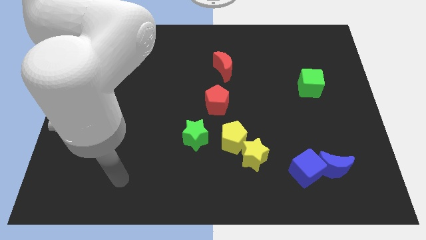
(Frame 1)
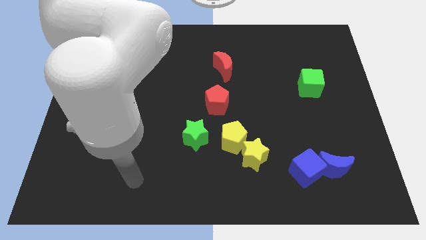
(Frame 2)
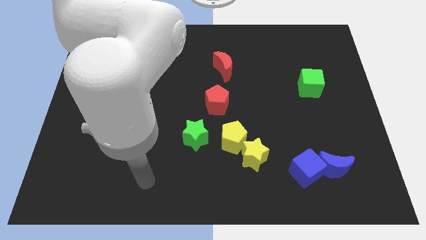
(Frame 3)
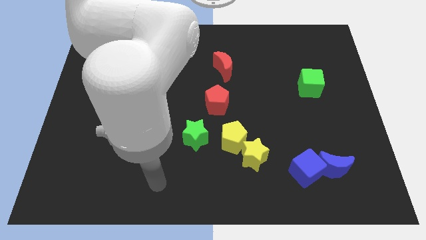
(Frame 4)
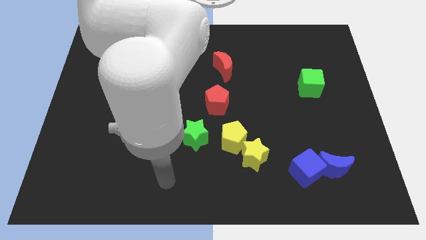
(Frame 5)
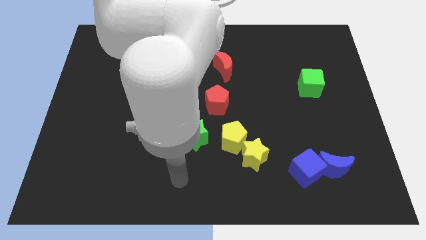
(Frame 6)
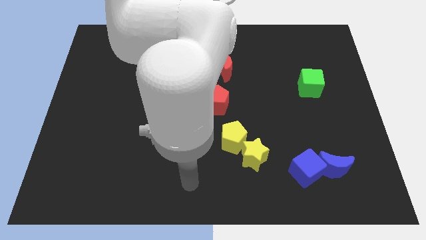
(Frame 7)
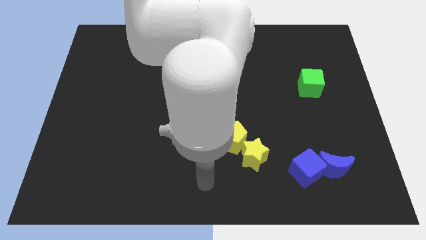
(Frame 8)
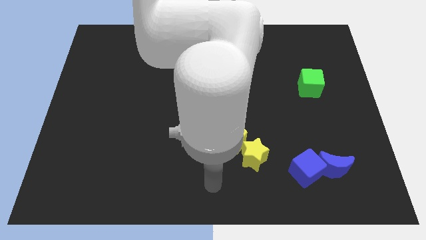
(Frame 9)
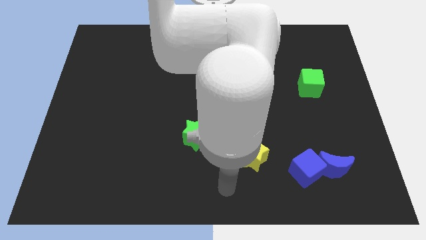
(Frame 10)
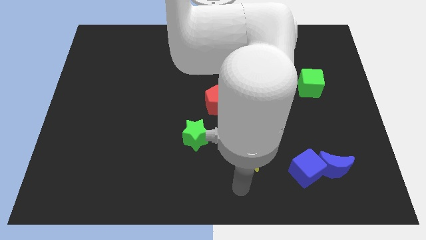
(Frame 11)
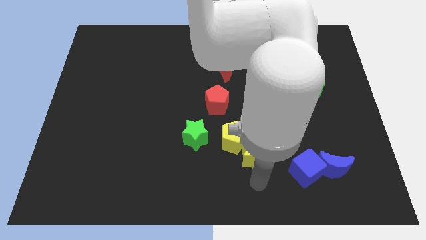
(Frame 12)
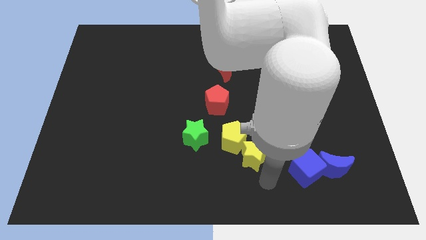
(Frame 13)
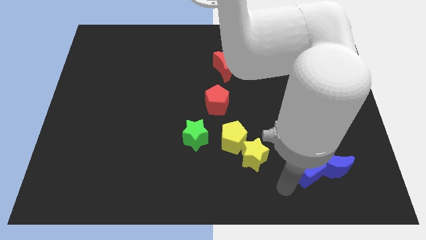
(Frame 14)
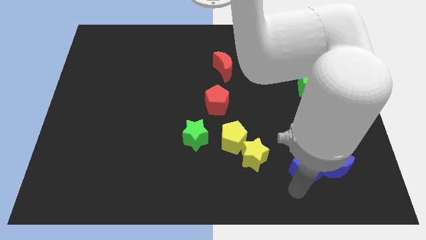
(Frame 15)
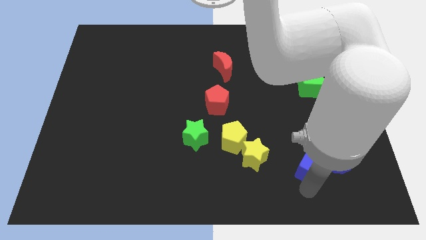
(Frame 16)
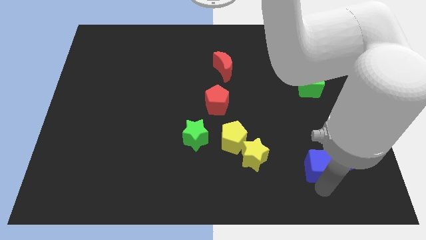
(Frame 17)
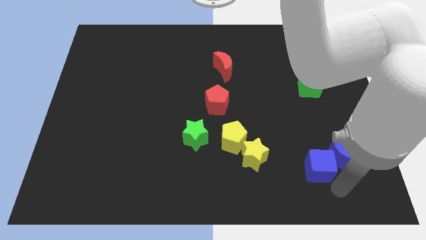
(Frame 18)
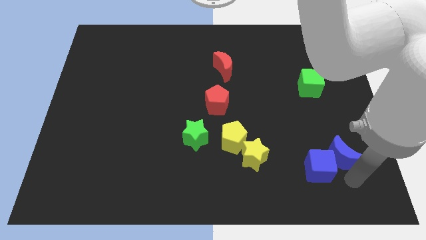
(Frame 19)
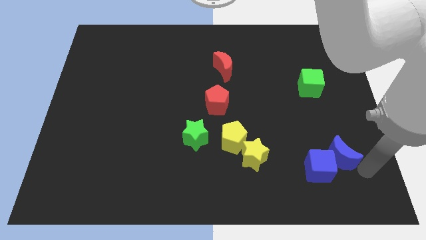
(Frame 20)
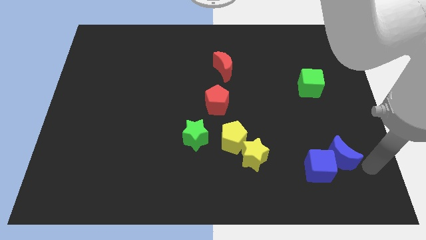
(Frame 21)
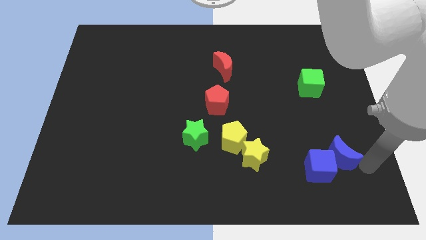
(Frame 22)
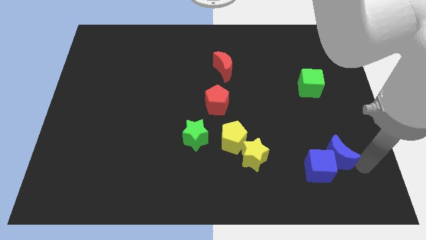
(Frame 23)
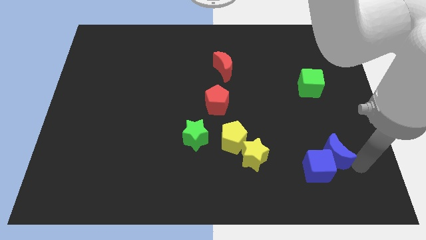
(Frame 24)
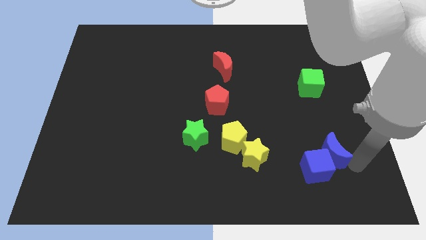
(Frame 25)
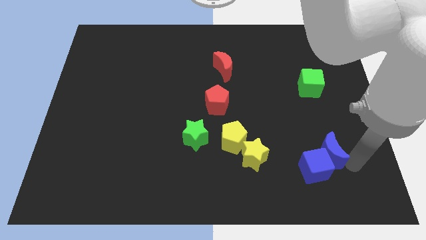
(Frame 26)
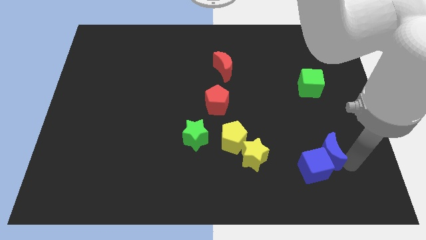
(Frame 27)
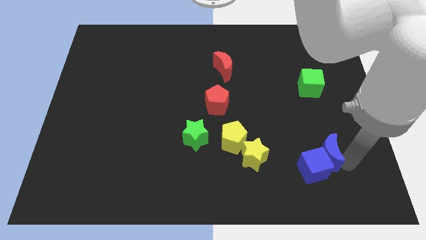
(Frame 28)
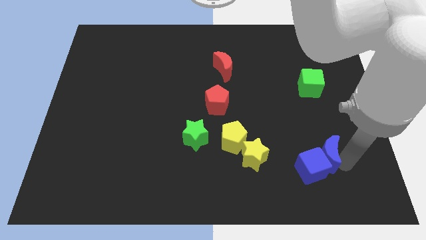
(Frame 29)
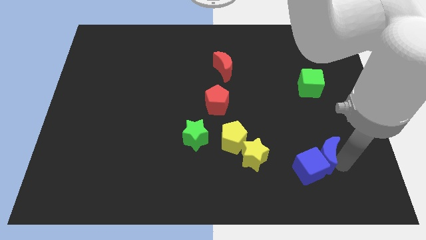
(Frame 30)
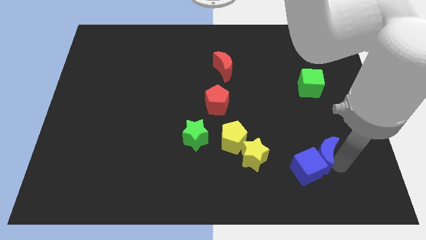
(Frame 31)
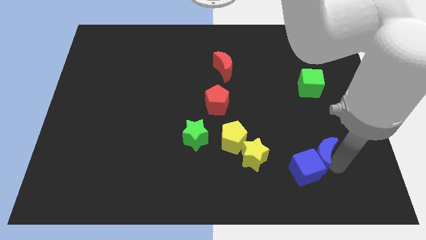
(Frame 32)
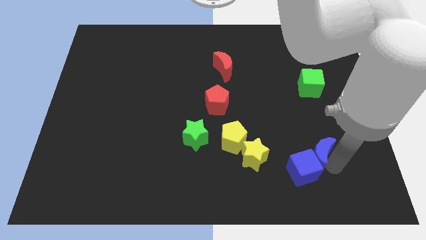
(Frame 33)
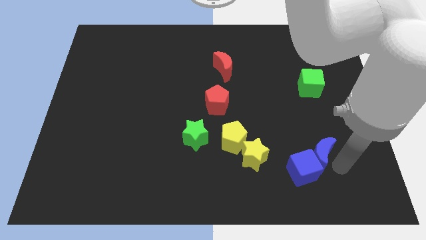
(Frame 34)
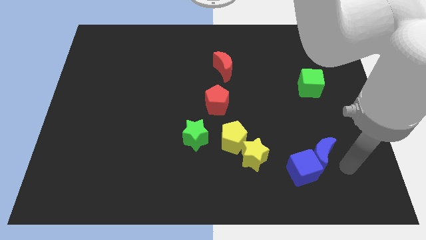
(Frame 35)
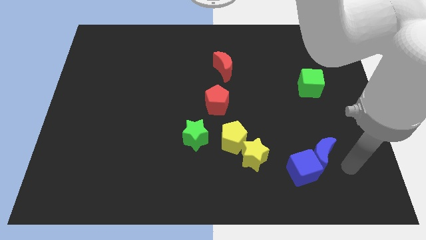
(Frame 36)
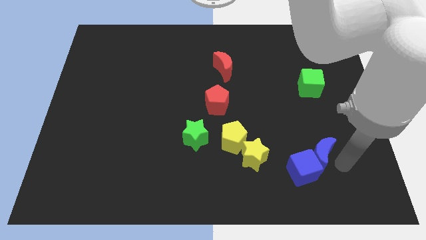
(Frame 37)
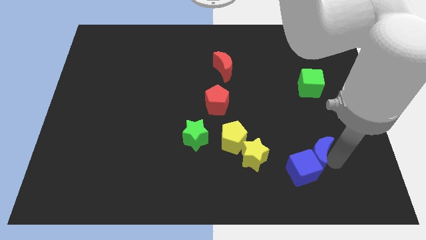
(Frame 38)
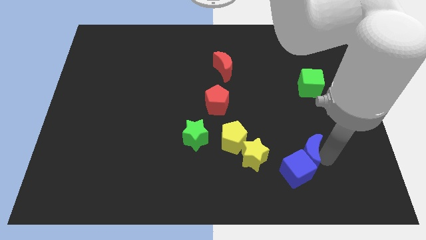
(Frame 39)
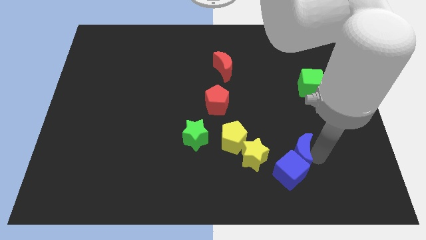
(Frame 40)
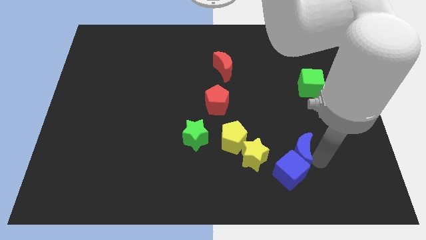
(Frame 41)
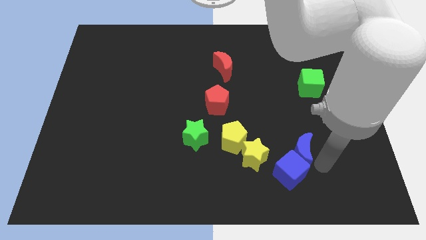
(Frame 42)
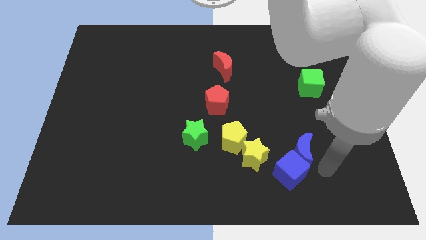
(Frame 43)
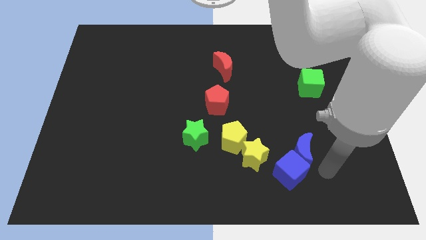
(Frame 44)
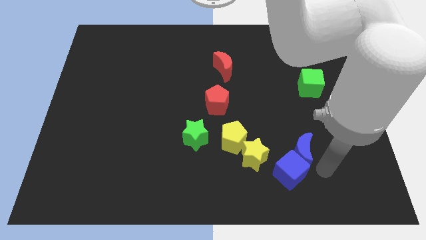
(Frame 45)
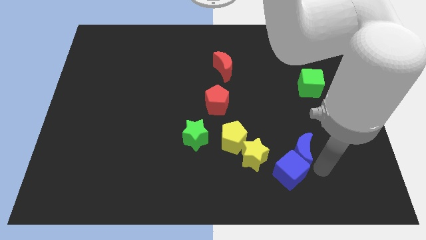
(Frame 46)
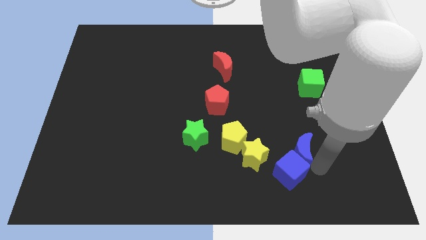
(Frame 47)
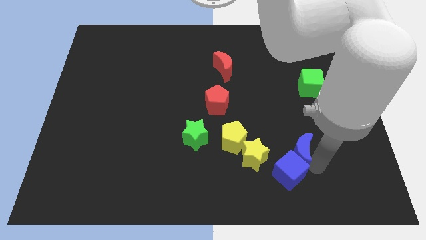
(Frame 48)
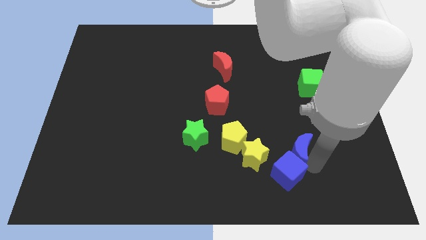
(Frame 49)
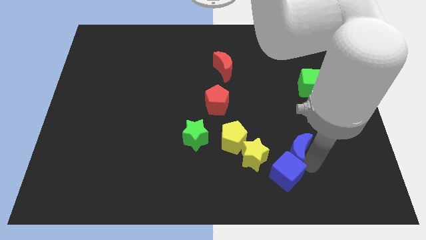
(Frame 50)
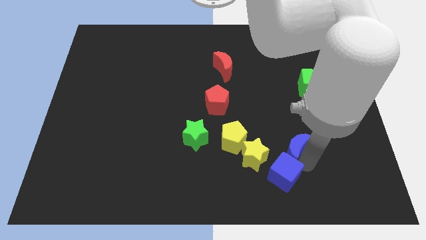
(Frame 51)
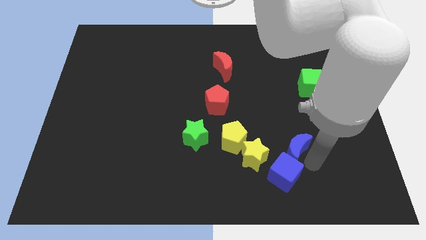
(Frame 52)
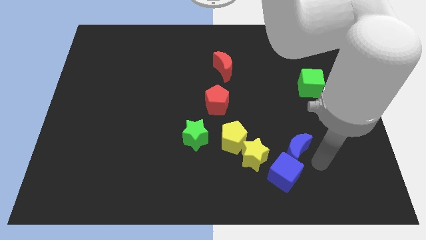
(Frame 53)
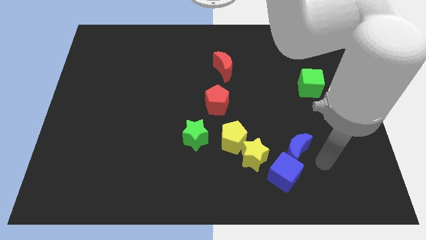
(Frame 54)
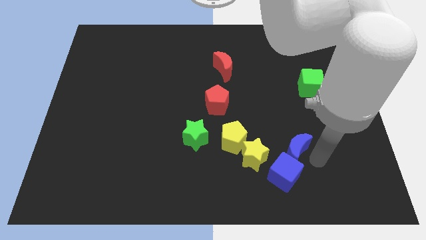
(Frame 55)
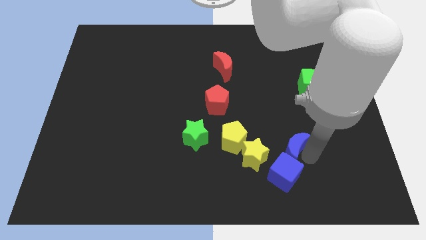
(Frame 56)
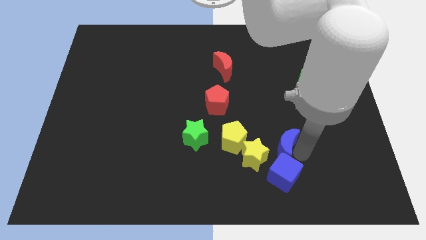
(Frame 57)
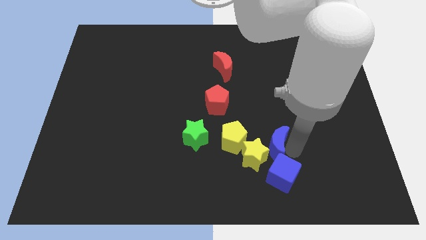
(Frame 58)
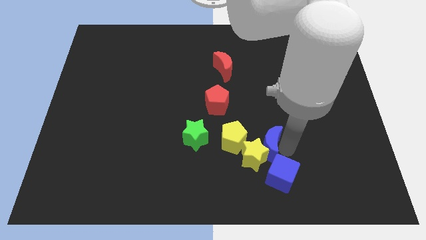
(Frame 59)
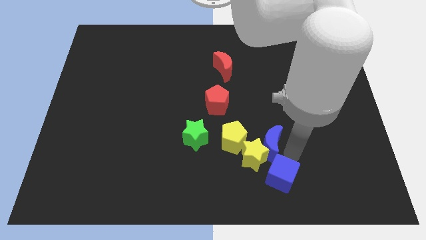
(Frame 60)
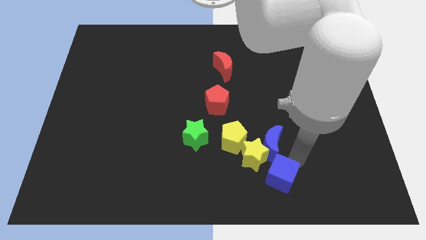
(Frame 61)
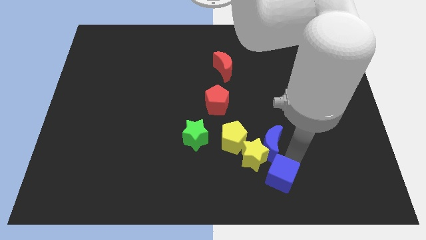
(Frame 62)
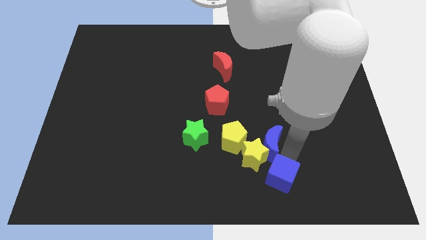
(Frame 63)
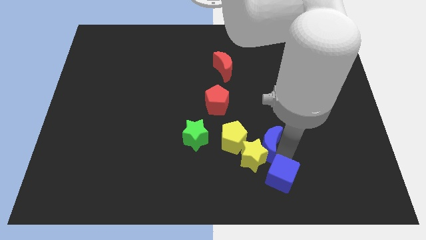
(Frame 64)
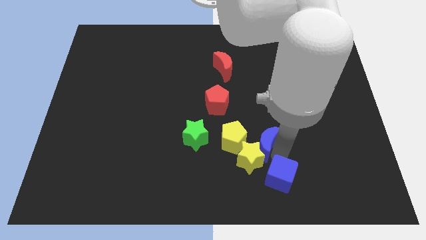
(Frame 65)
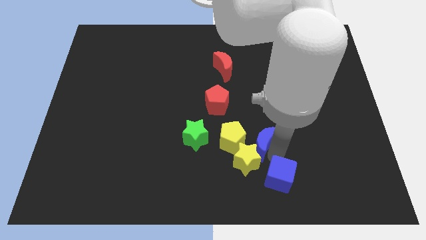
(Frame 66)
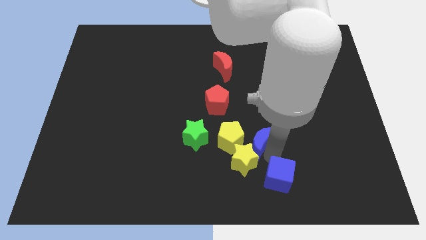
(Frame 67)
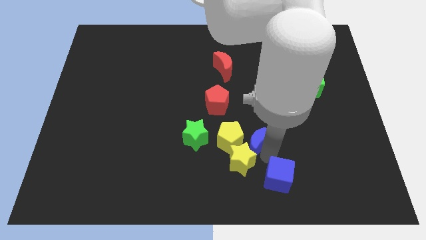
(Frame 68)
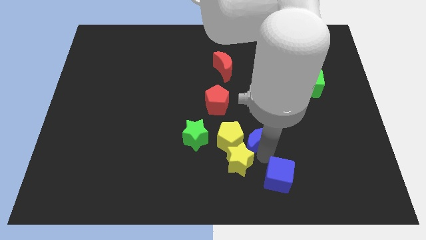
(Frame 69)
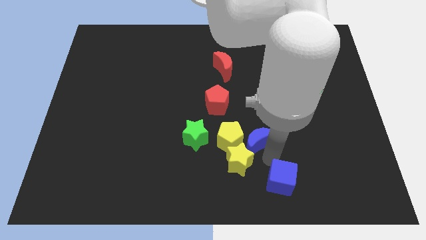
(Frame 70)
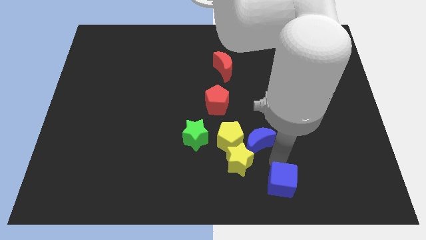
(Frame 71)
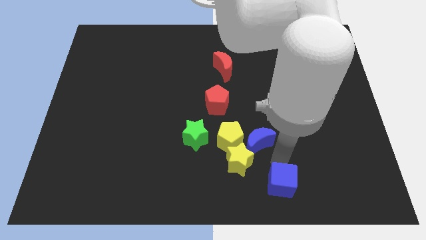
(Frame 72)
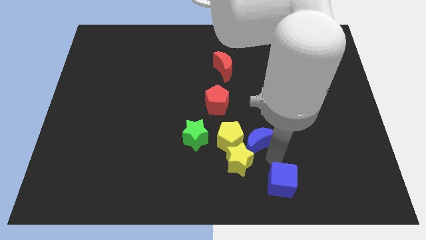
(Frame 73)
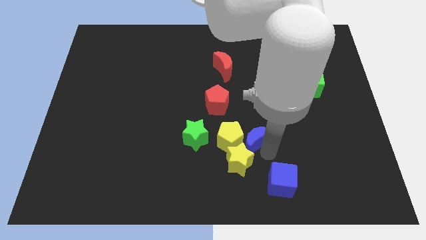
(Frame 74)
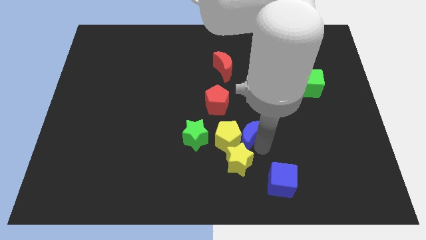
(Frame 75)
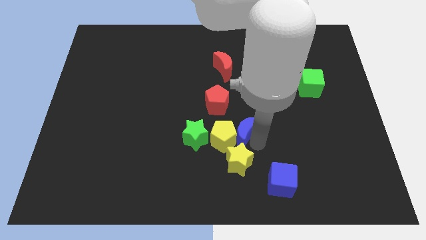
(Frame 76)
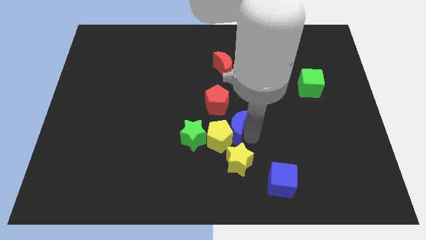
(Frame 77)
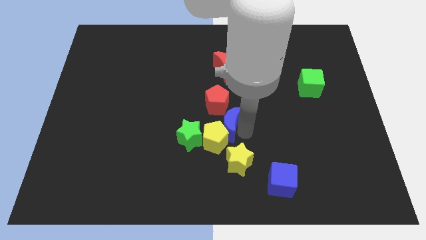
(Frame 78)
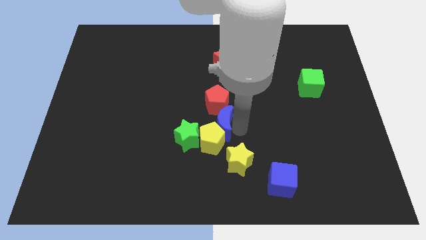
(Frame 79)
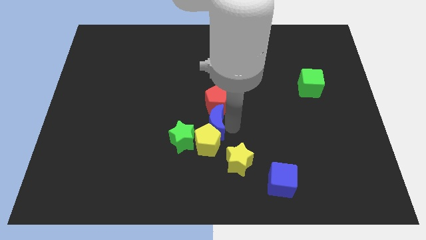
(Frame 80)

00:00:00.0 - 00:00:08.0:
slide the blue moon to the bottom left side of the red pentagon

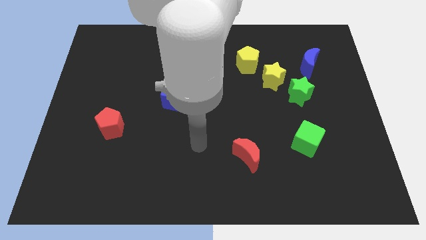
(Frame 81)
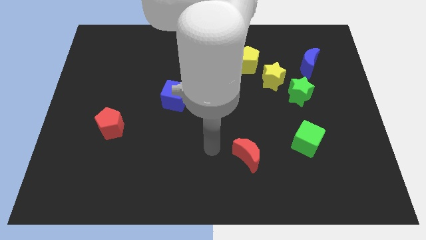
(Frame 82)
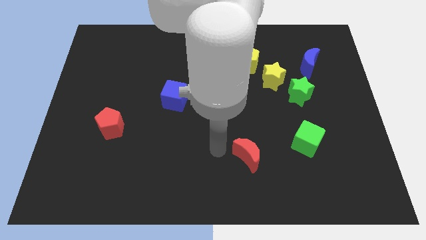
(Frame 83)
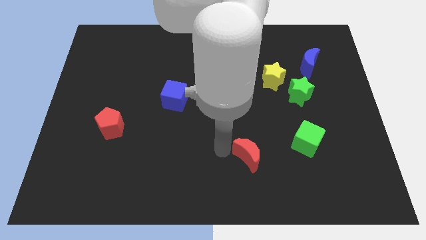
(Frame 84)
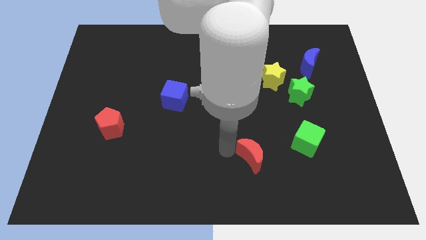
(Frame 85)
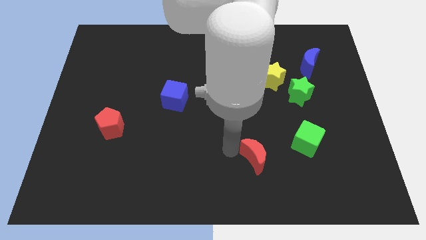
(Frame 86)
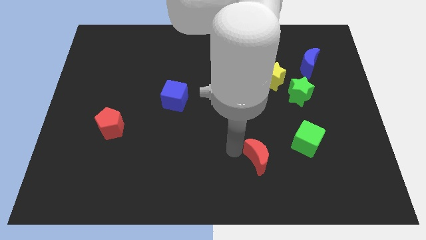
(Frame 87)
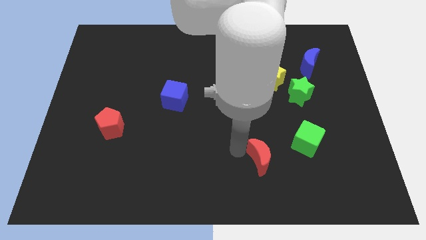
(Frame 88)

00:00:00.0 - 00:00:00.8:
move the red moon to the bottom left of the green cube
